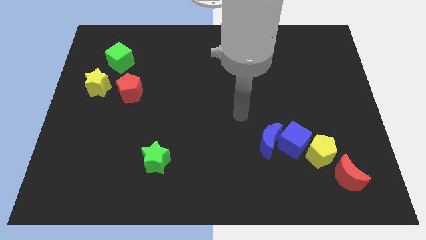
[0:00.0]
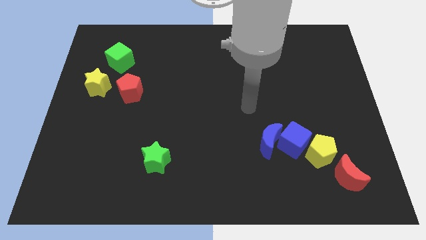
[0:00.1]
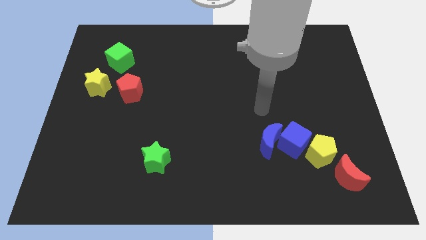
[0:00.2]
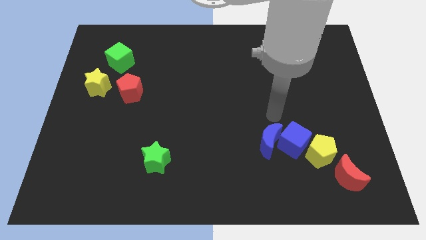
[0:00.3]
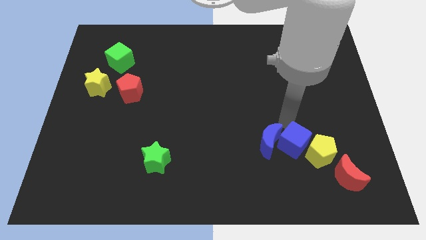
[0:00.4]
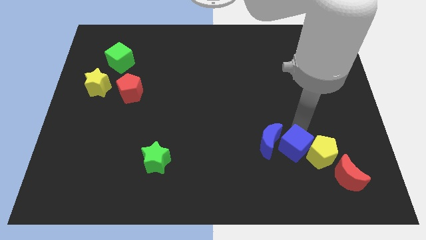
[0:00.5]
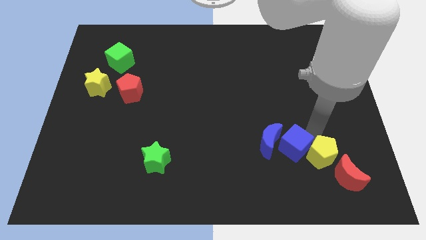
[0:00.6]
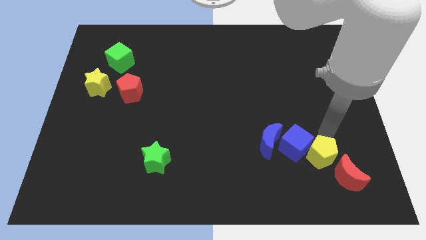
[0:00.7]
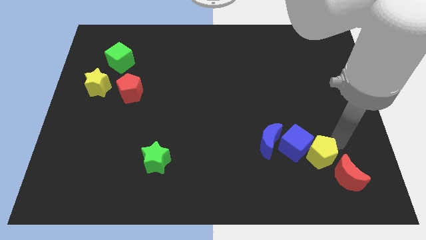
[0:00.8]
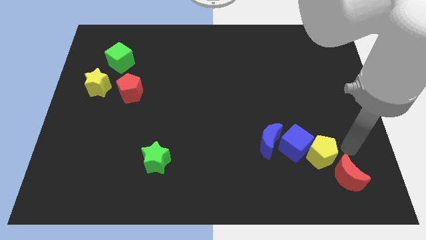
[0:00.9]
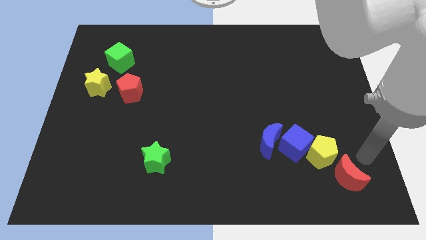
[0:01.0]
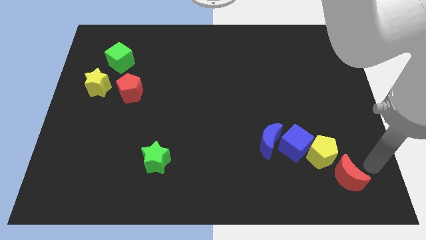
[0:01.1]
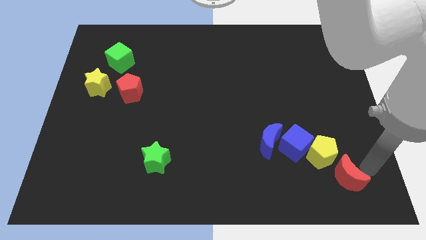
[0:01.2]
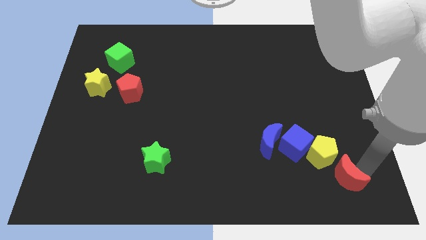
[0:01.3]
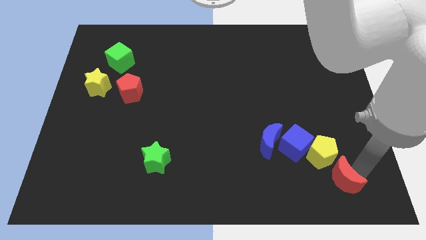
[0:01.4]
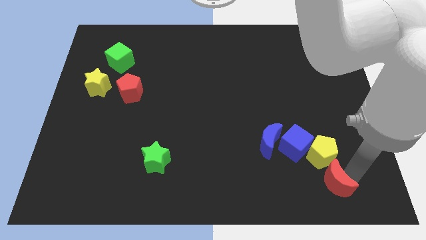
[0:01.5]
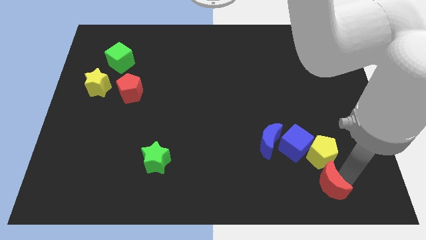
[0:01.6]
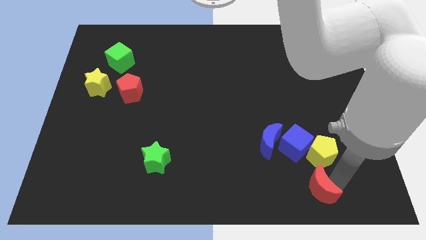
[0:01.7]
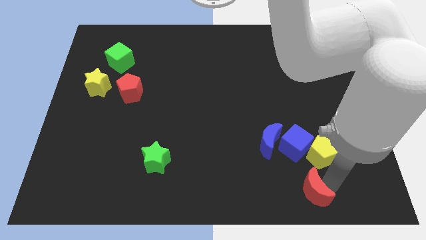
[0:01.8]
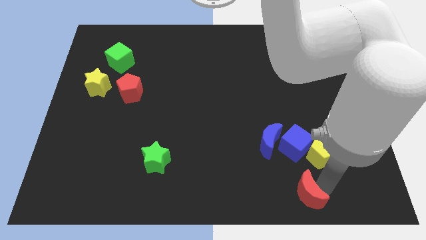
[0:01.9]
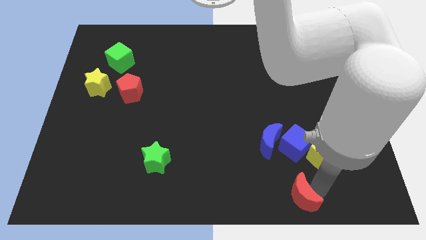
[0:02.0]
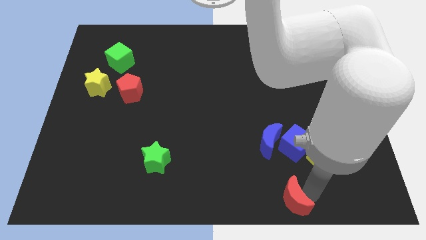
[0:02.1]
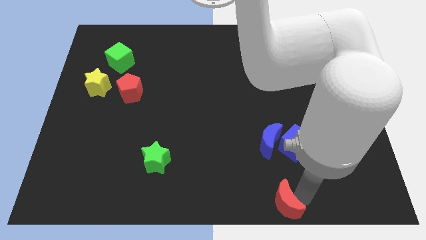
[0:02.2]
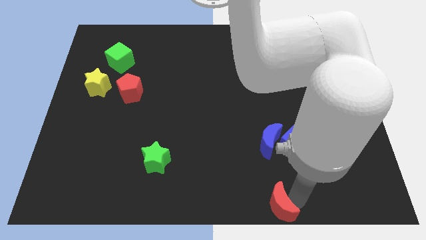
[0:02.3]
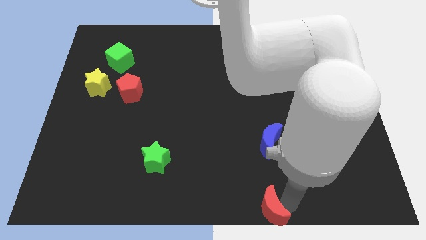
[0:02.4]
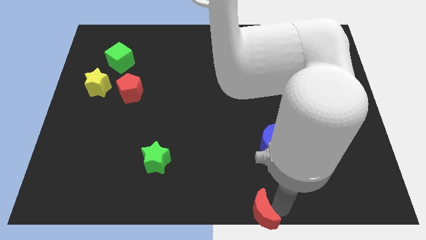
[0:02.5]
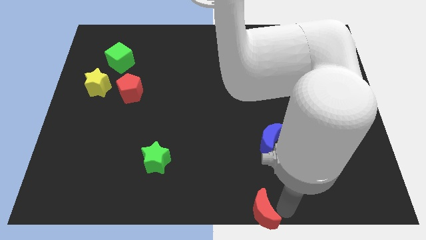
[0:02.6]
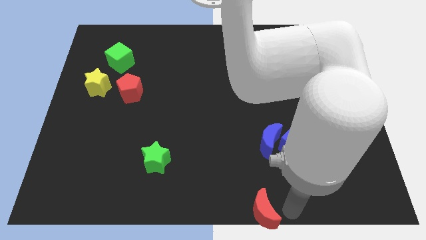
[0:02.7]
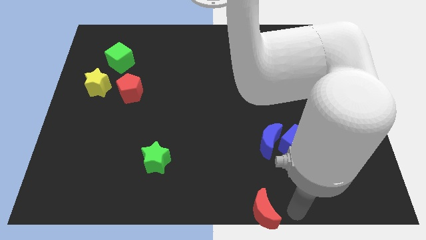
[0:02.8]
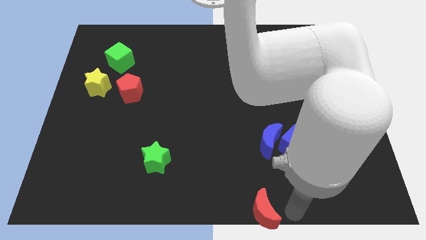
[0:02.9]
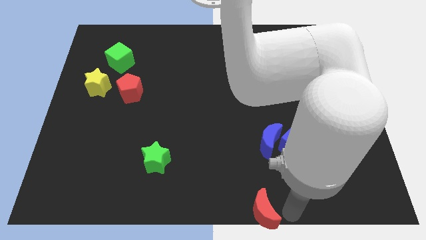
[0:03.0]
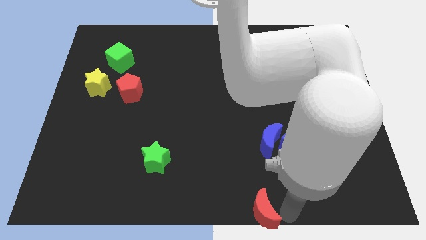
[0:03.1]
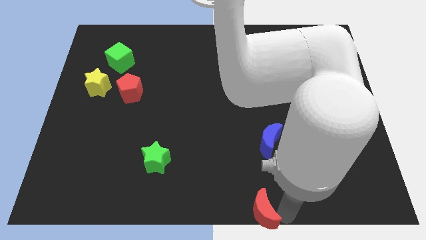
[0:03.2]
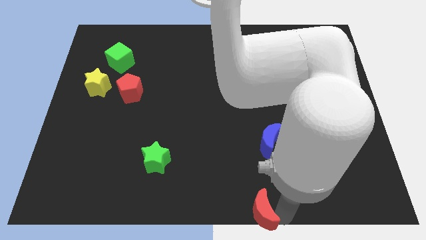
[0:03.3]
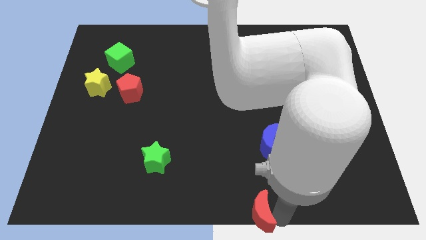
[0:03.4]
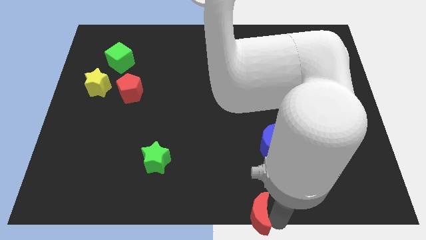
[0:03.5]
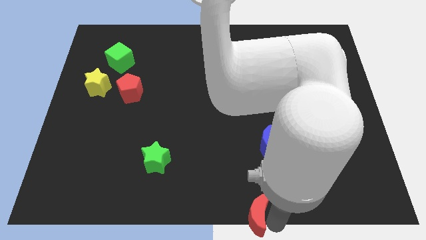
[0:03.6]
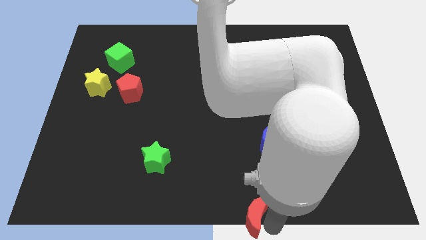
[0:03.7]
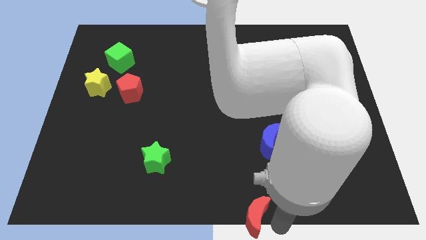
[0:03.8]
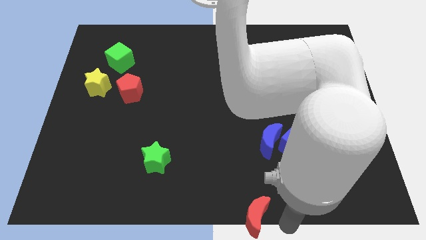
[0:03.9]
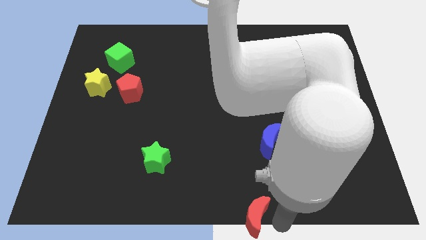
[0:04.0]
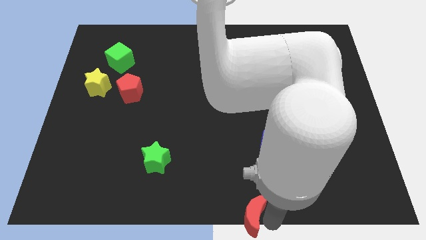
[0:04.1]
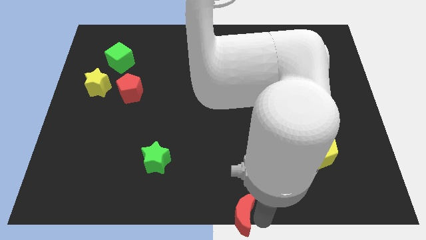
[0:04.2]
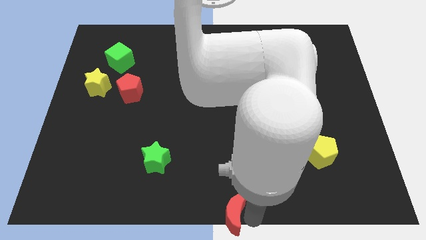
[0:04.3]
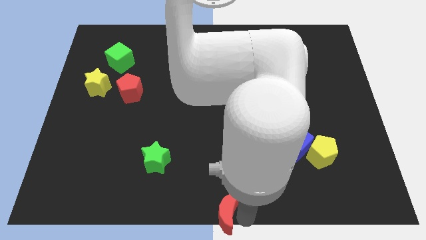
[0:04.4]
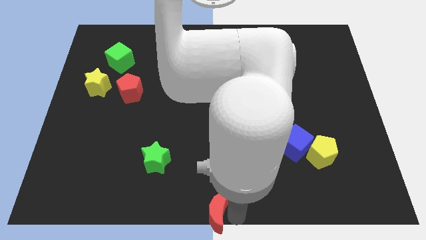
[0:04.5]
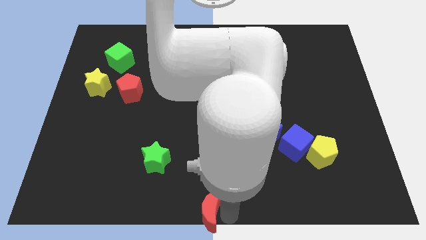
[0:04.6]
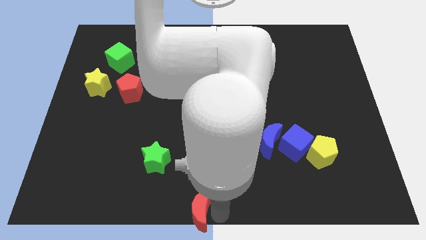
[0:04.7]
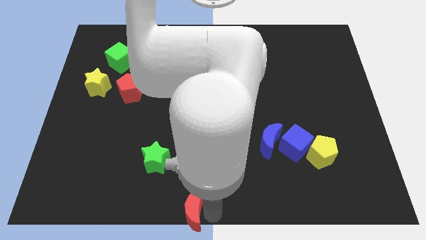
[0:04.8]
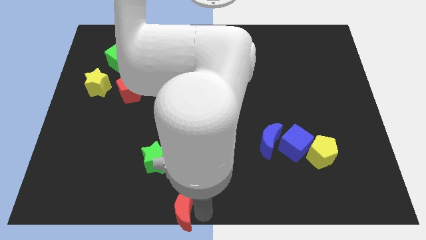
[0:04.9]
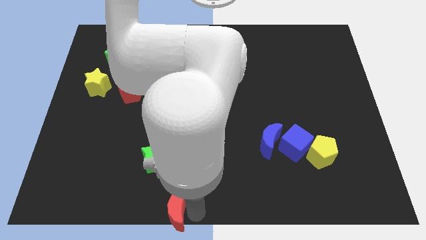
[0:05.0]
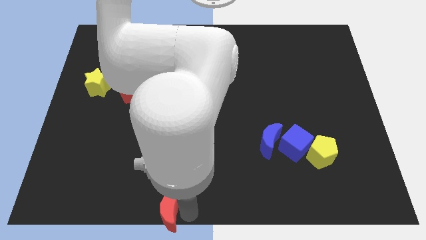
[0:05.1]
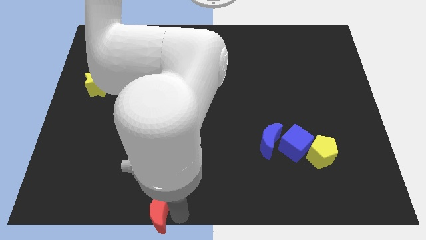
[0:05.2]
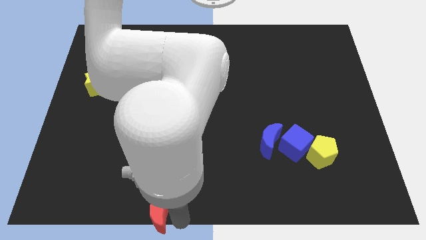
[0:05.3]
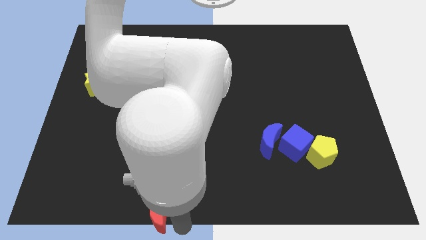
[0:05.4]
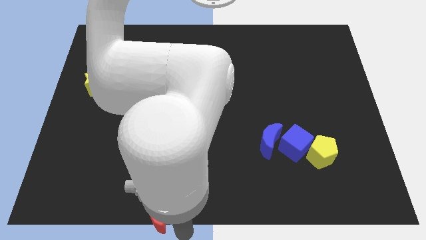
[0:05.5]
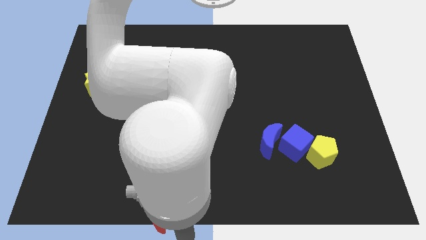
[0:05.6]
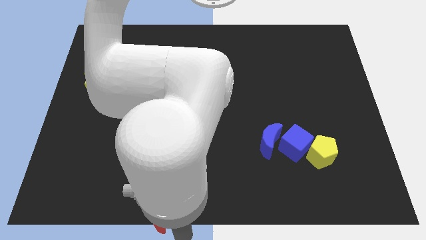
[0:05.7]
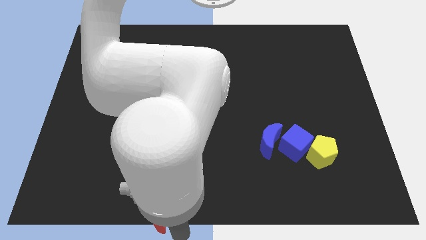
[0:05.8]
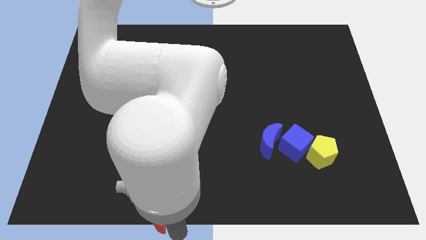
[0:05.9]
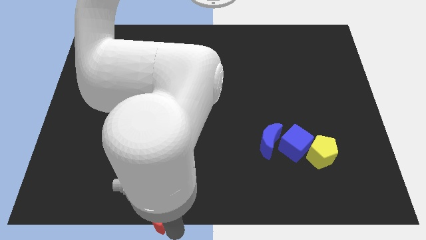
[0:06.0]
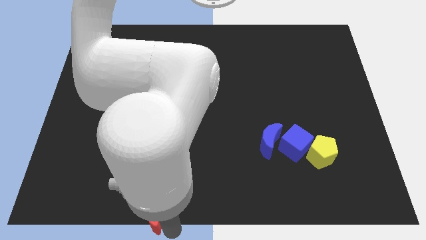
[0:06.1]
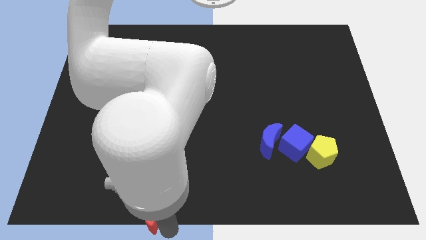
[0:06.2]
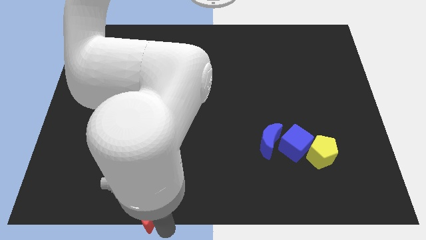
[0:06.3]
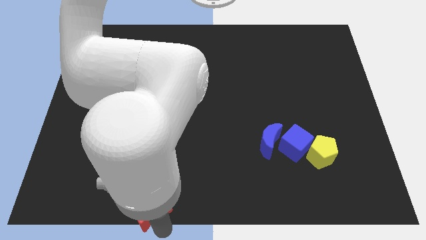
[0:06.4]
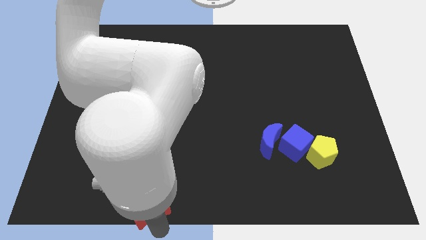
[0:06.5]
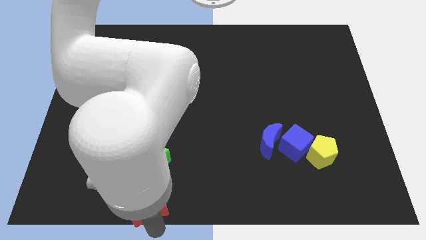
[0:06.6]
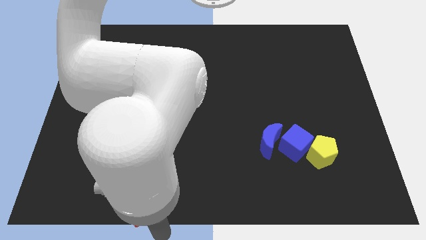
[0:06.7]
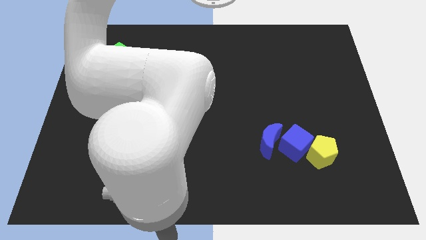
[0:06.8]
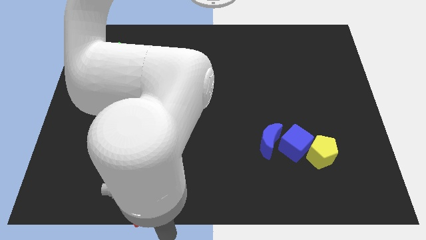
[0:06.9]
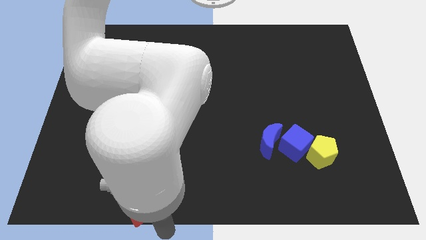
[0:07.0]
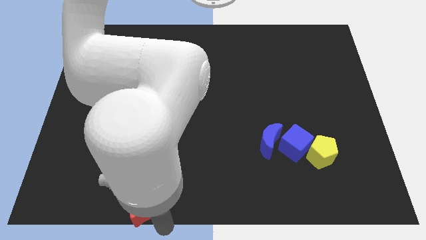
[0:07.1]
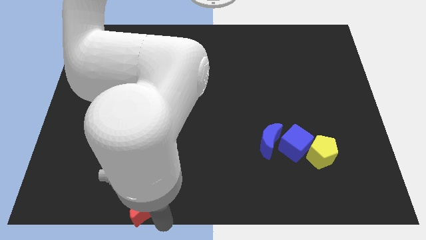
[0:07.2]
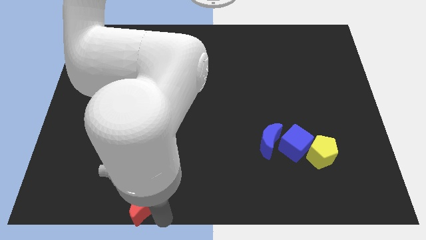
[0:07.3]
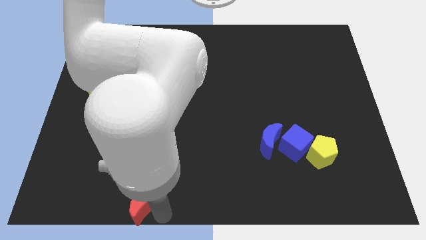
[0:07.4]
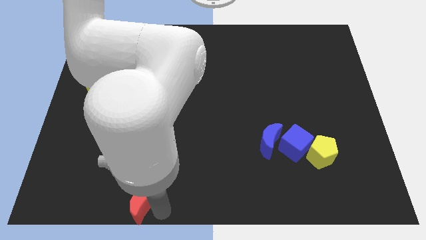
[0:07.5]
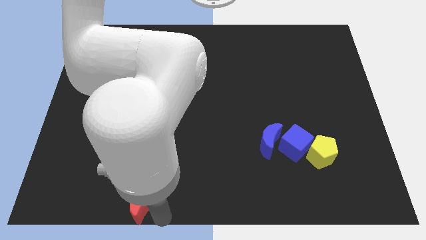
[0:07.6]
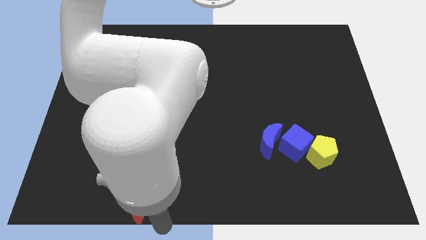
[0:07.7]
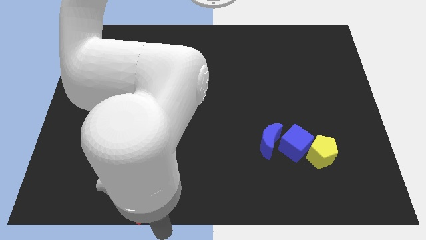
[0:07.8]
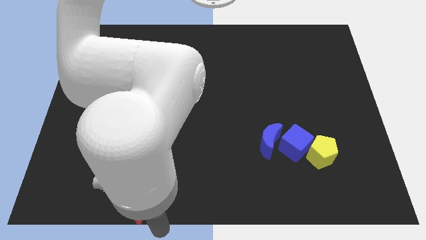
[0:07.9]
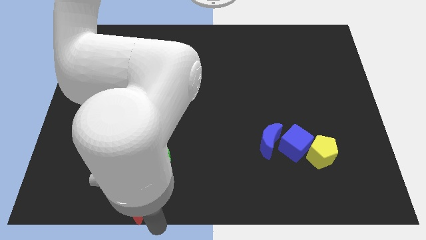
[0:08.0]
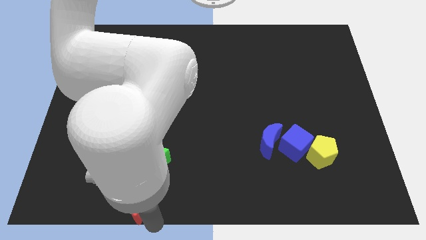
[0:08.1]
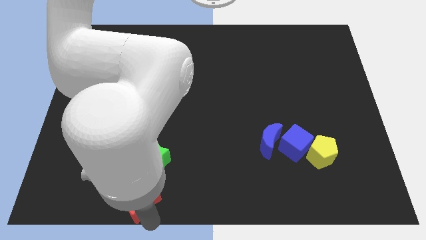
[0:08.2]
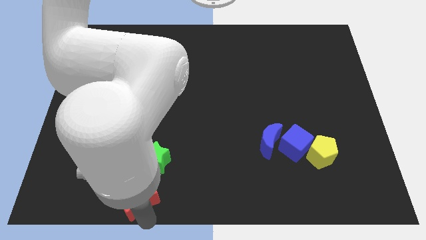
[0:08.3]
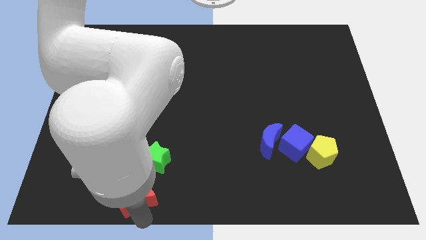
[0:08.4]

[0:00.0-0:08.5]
put the red moon diagonally down and to the left of the green star
